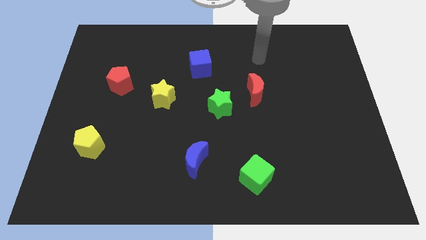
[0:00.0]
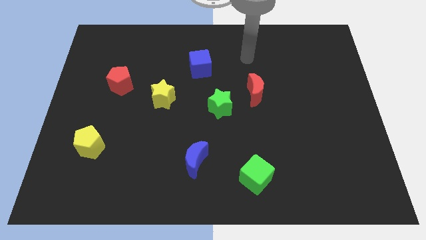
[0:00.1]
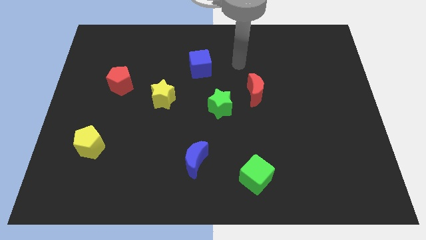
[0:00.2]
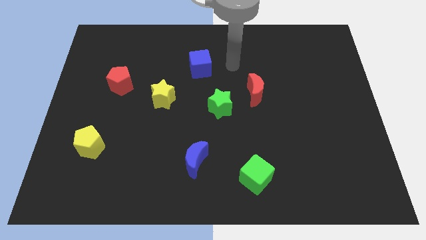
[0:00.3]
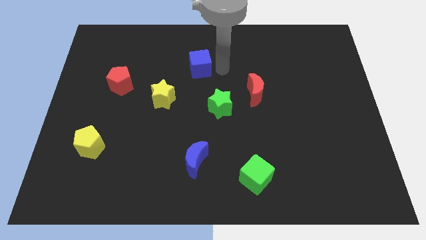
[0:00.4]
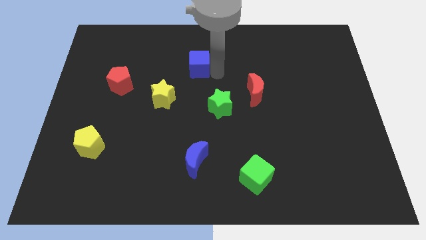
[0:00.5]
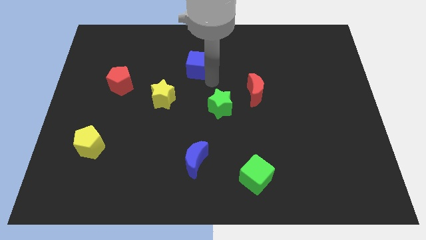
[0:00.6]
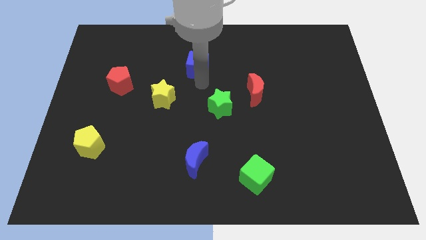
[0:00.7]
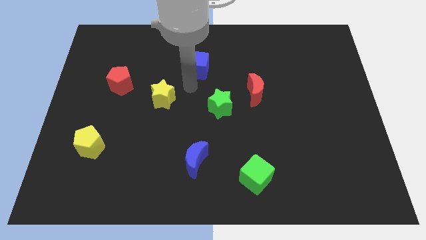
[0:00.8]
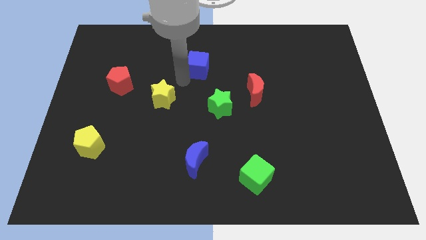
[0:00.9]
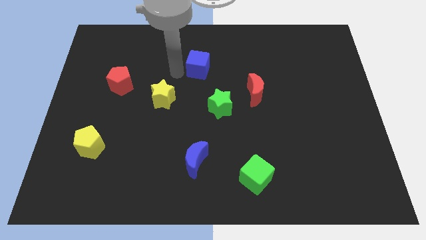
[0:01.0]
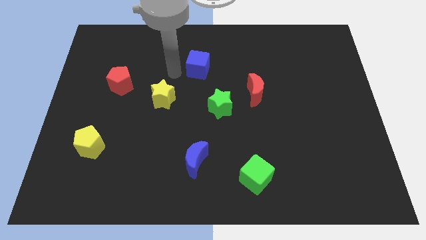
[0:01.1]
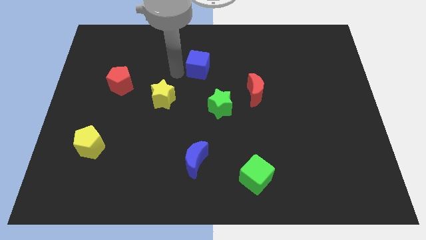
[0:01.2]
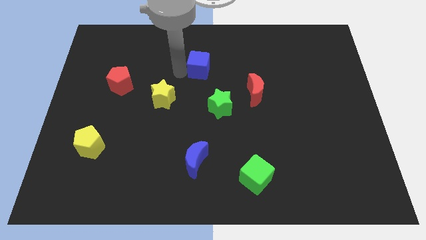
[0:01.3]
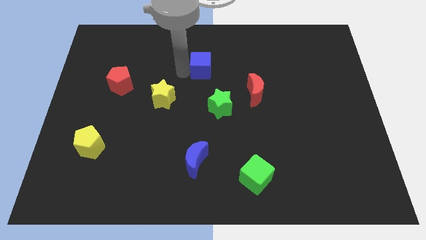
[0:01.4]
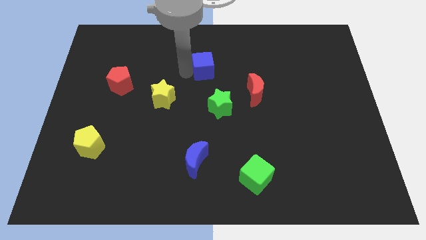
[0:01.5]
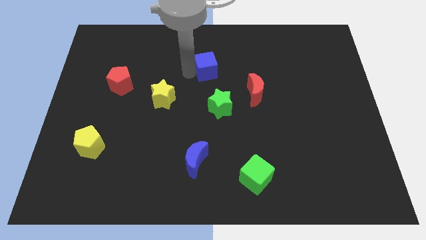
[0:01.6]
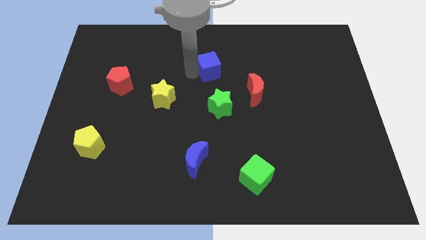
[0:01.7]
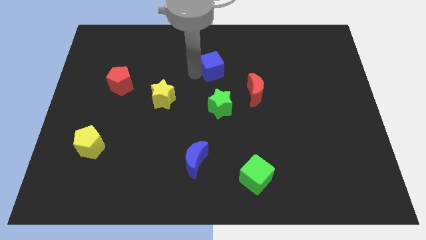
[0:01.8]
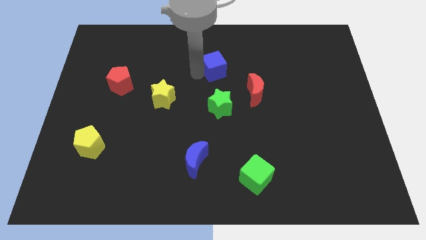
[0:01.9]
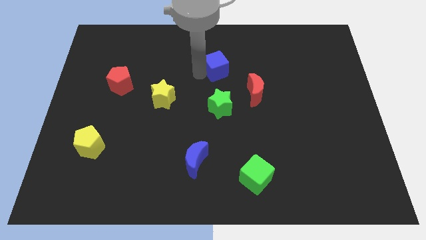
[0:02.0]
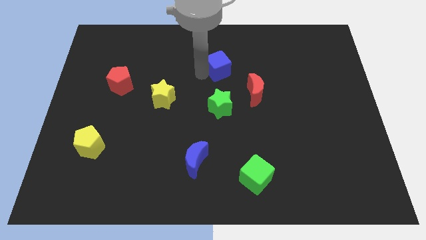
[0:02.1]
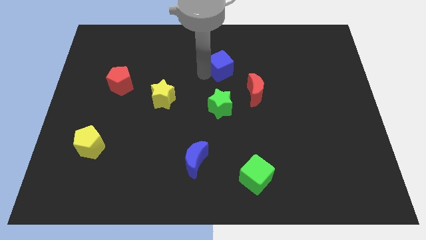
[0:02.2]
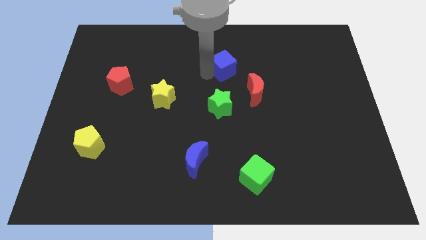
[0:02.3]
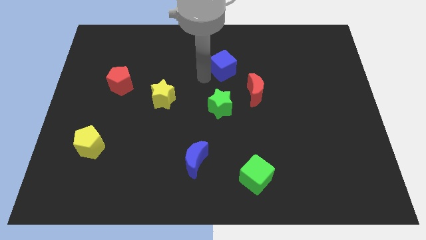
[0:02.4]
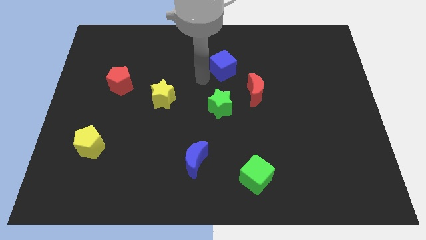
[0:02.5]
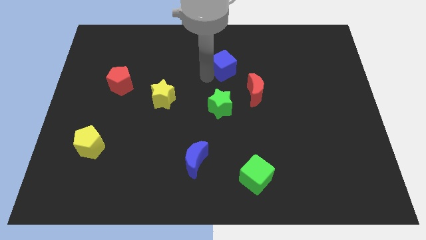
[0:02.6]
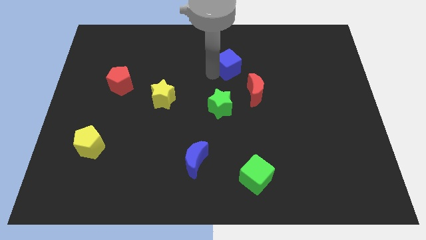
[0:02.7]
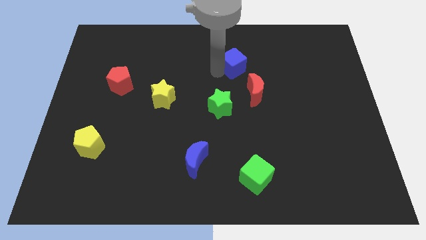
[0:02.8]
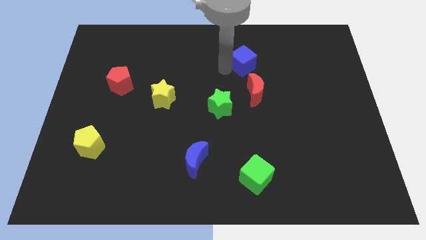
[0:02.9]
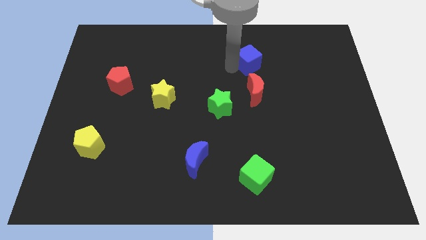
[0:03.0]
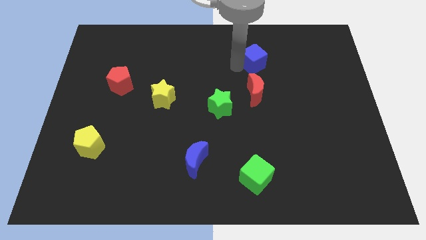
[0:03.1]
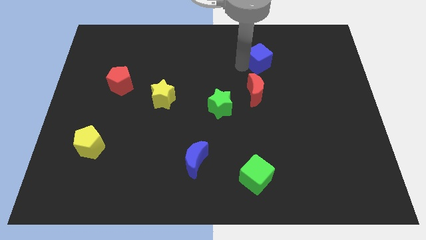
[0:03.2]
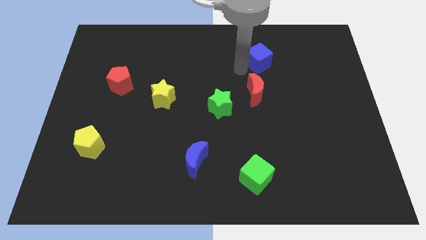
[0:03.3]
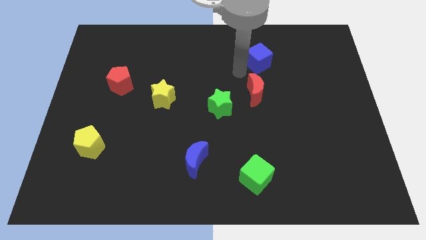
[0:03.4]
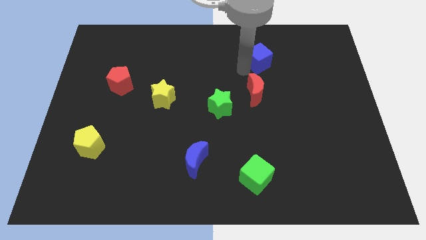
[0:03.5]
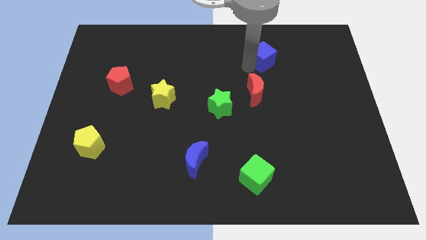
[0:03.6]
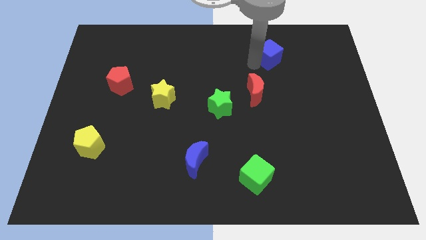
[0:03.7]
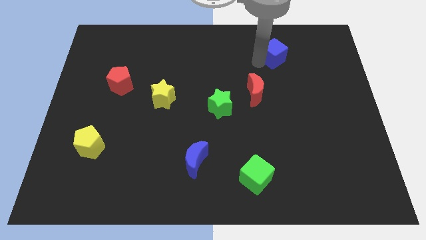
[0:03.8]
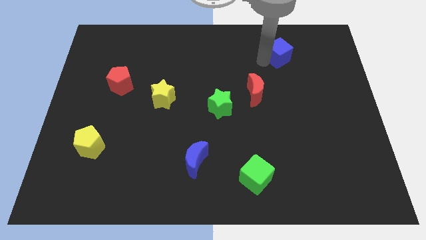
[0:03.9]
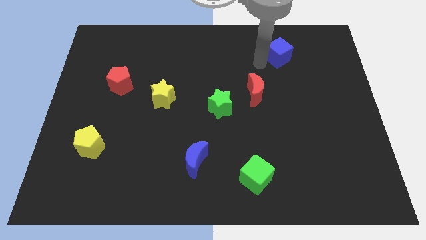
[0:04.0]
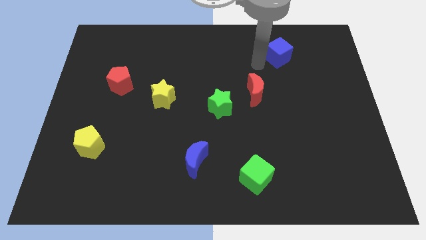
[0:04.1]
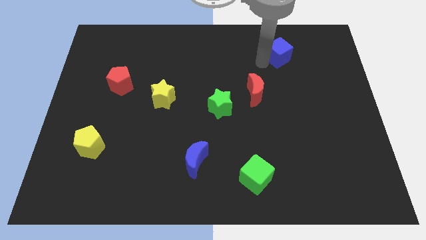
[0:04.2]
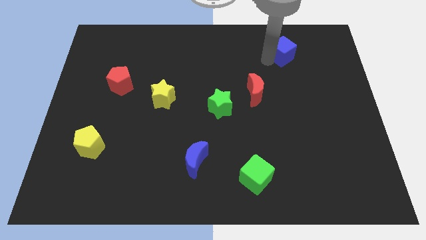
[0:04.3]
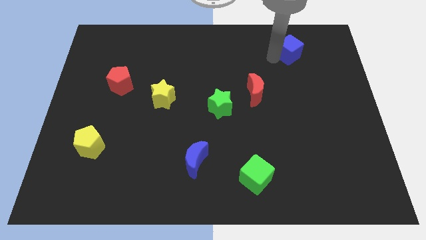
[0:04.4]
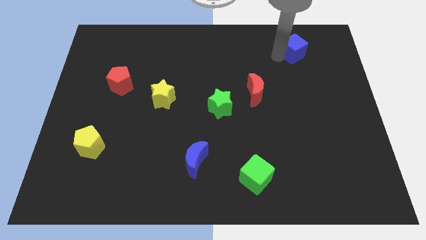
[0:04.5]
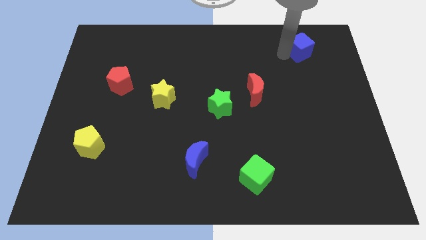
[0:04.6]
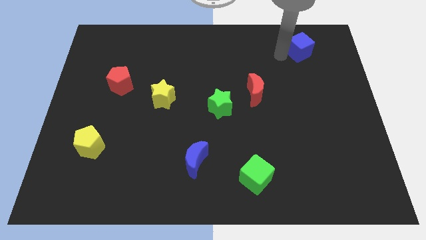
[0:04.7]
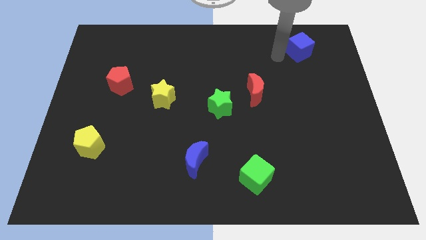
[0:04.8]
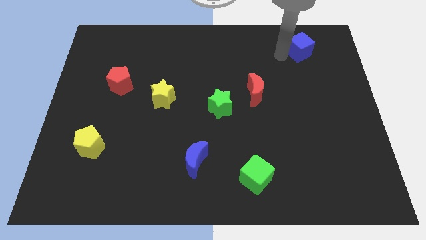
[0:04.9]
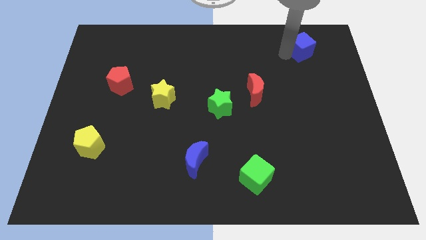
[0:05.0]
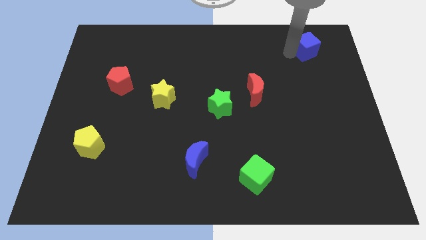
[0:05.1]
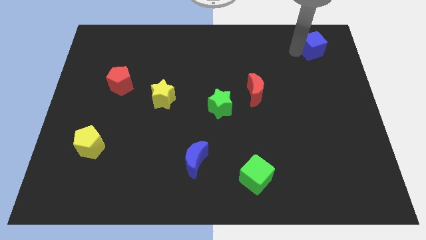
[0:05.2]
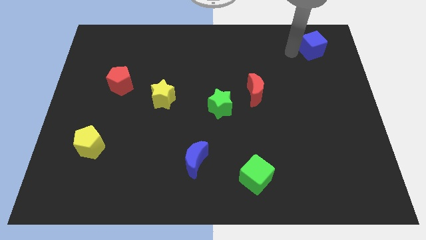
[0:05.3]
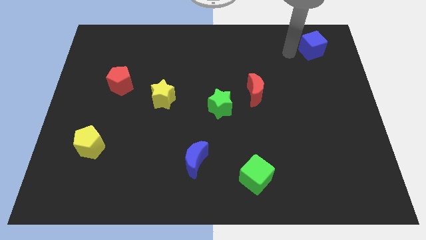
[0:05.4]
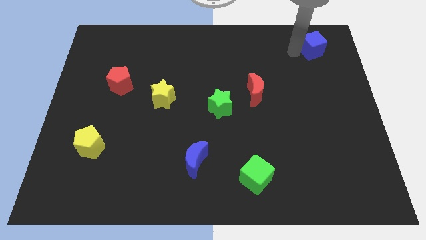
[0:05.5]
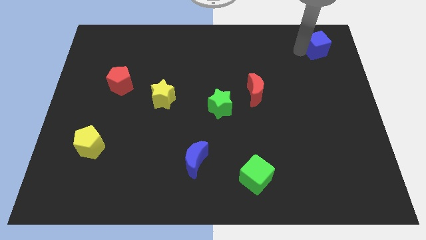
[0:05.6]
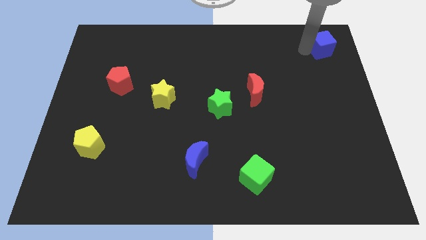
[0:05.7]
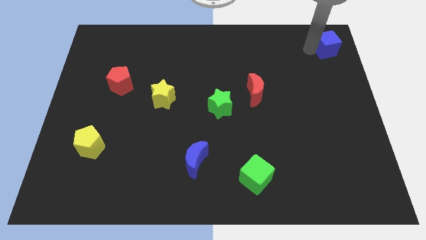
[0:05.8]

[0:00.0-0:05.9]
slide the blue cube to the top right
